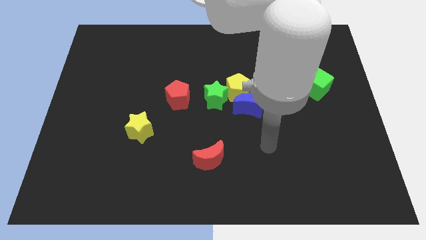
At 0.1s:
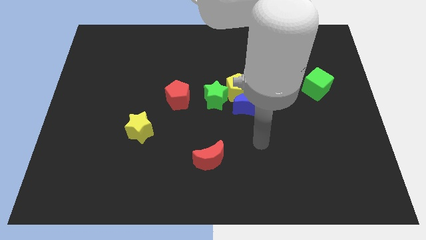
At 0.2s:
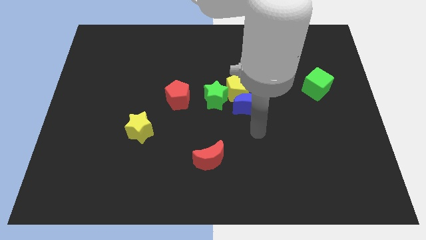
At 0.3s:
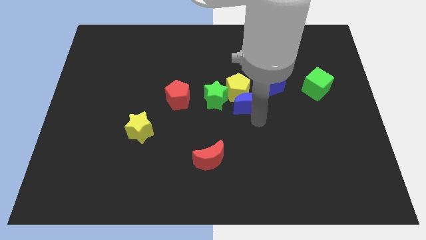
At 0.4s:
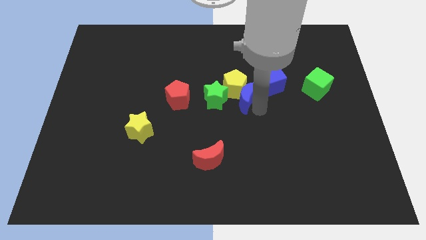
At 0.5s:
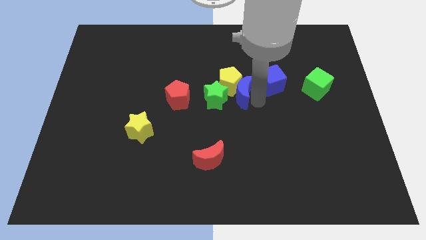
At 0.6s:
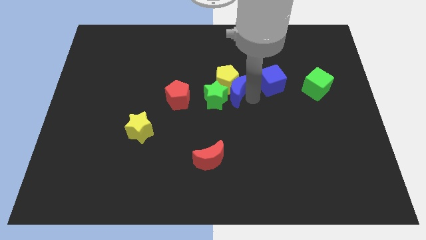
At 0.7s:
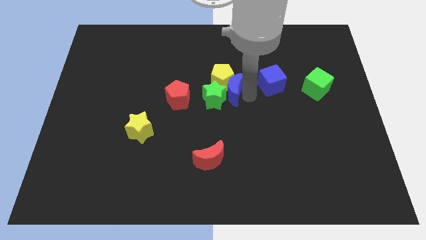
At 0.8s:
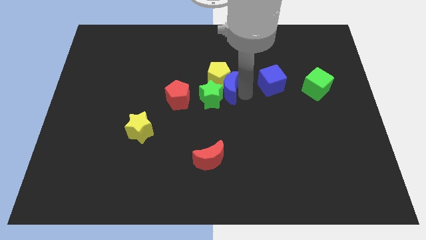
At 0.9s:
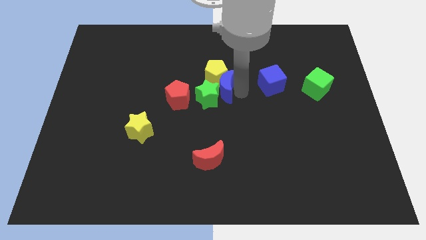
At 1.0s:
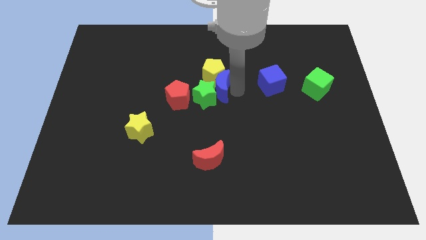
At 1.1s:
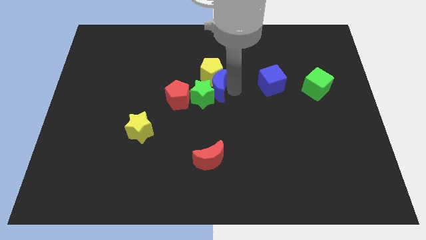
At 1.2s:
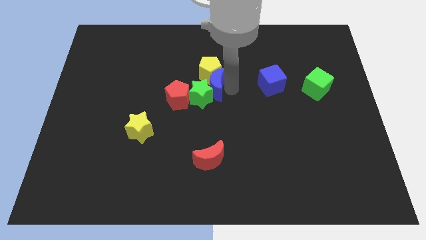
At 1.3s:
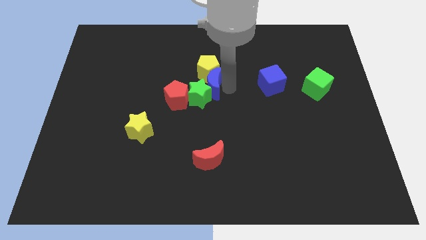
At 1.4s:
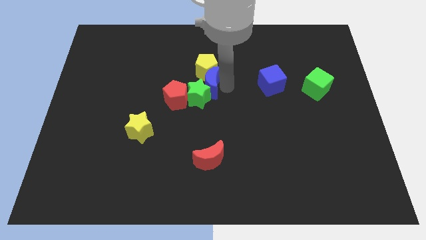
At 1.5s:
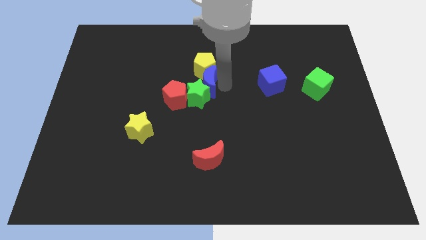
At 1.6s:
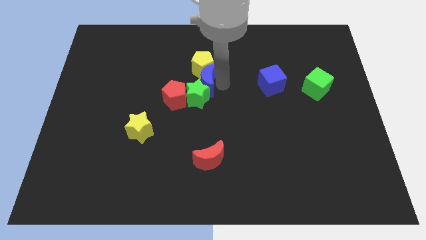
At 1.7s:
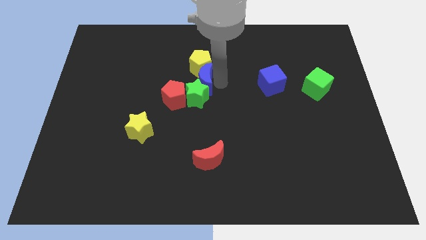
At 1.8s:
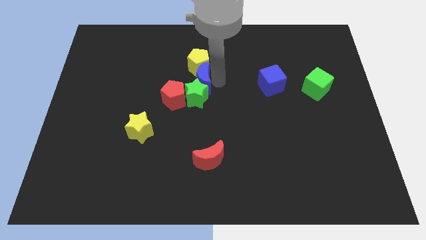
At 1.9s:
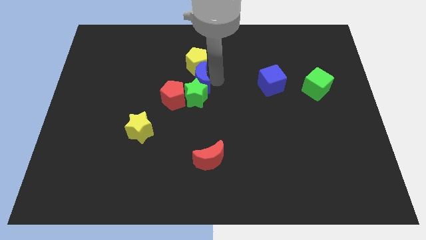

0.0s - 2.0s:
pull the yellow pentagon apart from the group of blocks

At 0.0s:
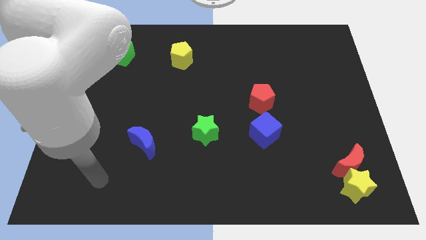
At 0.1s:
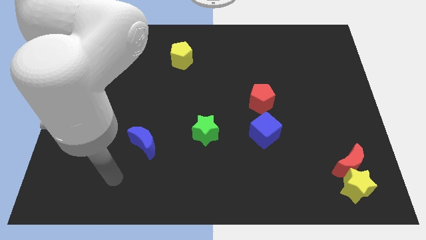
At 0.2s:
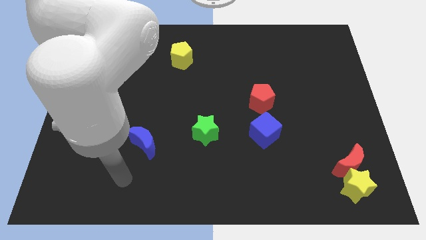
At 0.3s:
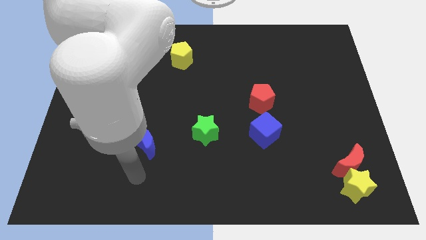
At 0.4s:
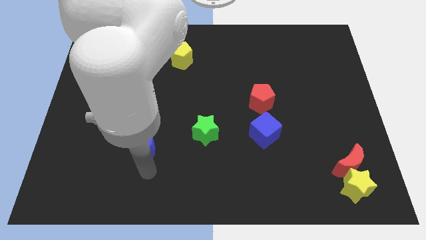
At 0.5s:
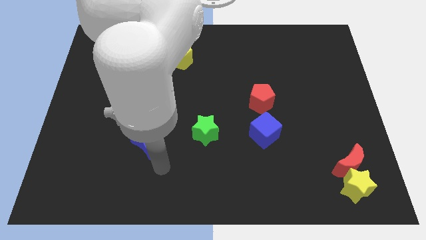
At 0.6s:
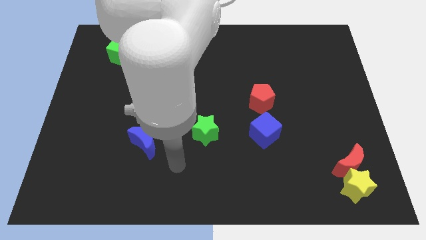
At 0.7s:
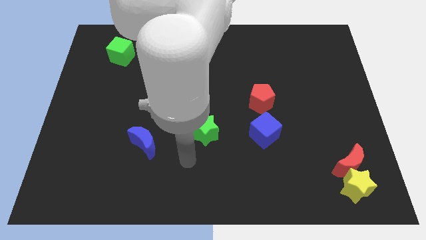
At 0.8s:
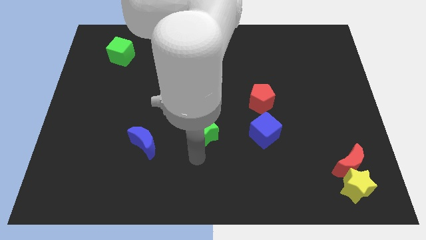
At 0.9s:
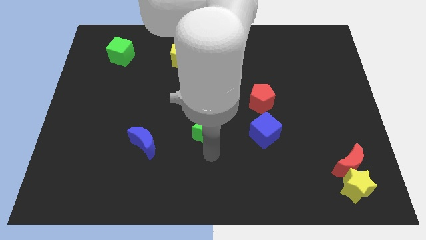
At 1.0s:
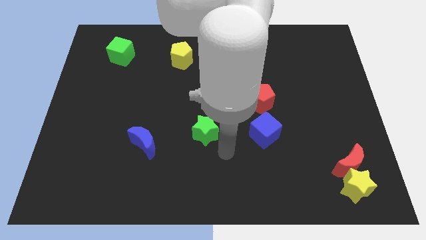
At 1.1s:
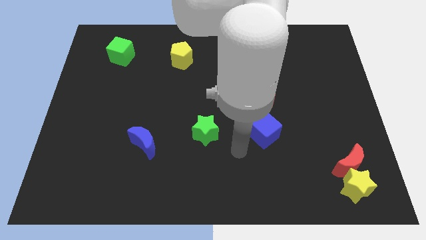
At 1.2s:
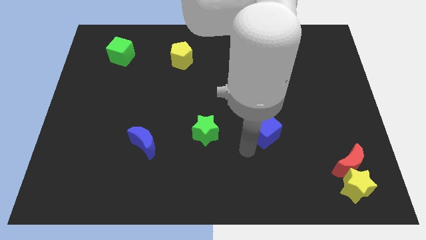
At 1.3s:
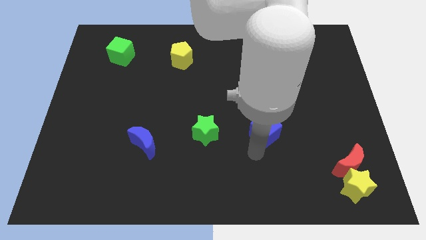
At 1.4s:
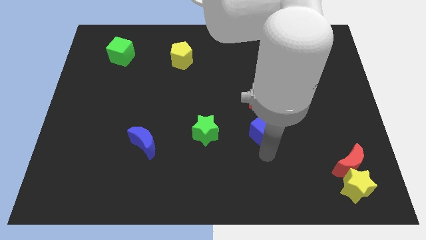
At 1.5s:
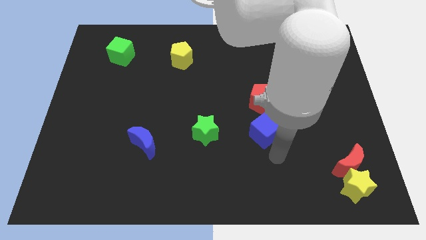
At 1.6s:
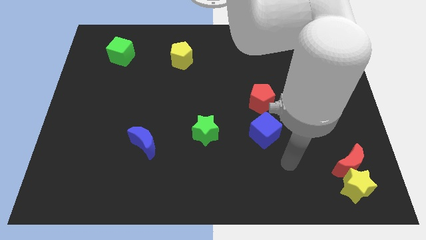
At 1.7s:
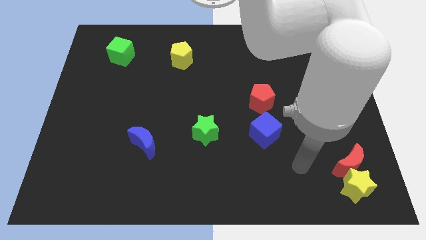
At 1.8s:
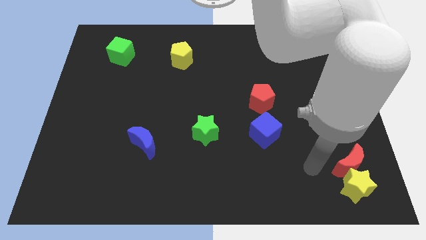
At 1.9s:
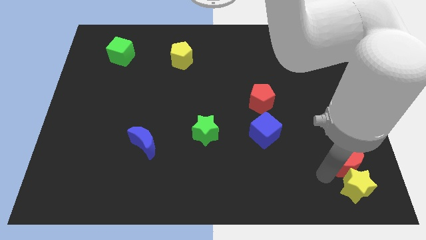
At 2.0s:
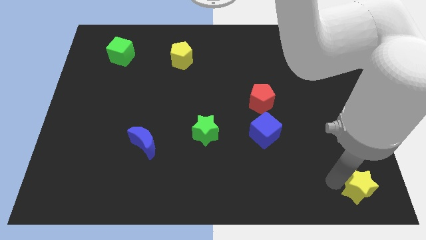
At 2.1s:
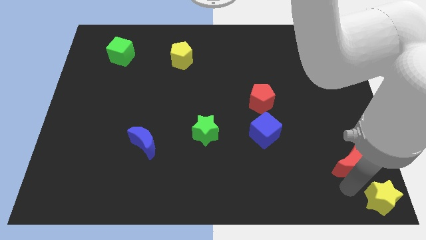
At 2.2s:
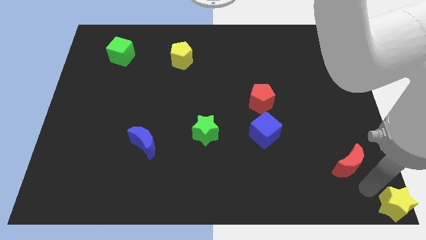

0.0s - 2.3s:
separate the red moon from the yellow star

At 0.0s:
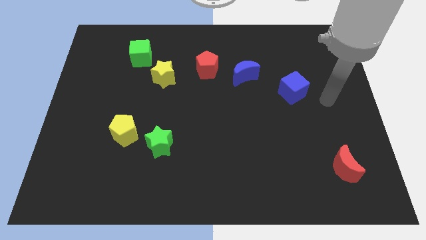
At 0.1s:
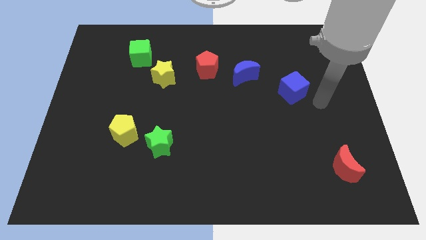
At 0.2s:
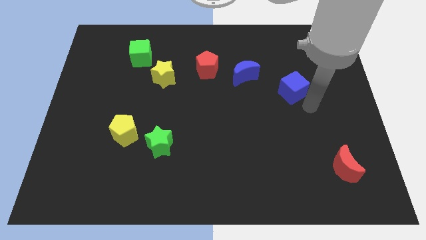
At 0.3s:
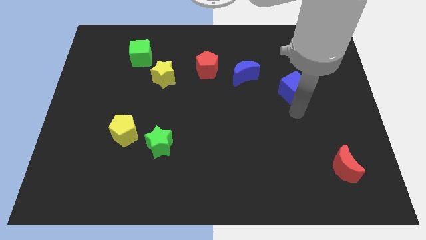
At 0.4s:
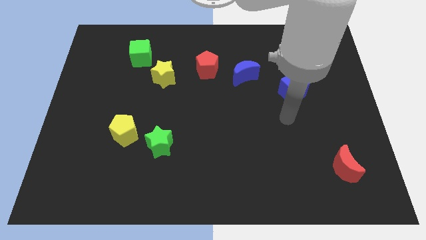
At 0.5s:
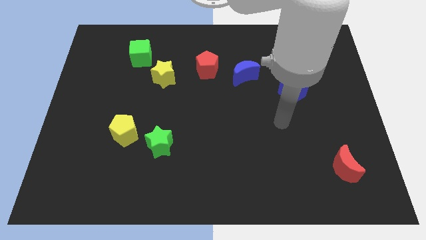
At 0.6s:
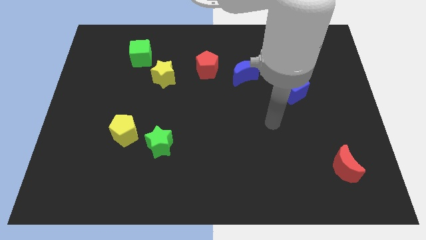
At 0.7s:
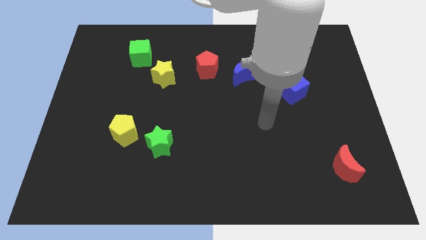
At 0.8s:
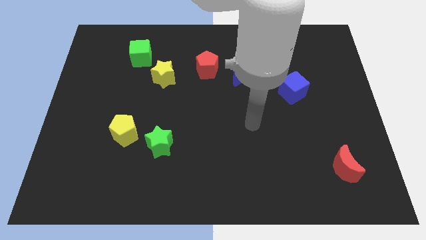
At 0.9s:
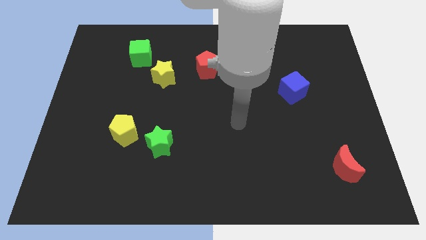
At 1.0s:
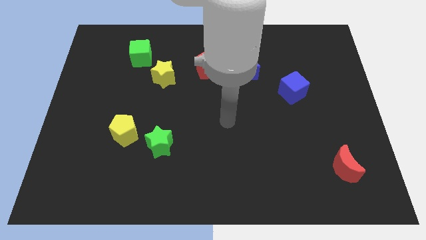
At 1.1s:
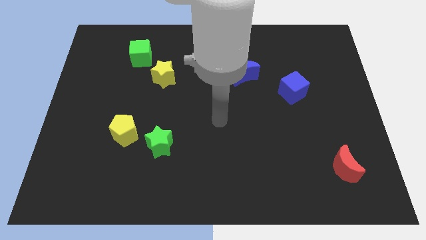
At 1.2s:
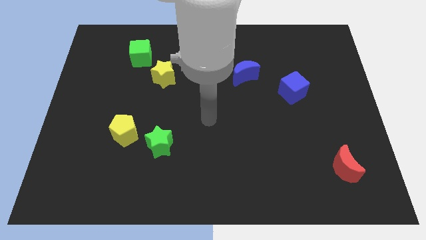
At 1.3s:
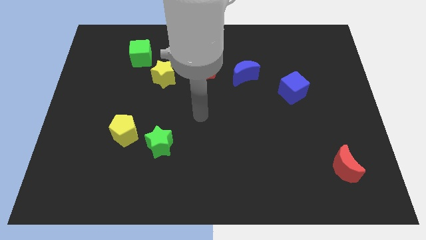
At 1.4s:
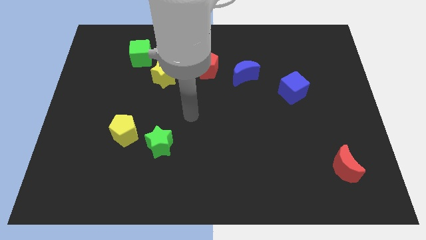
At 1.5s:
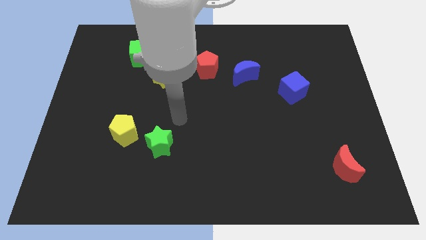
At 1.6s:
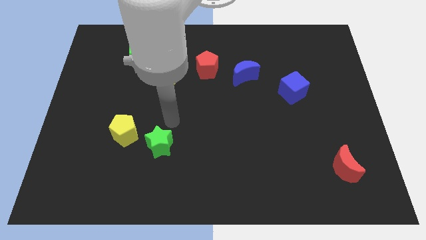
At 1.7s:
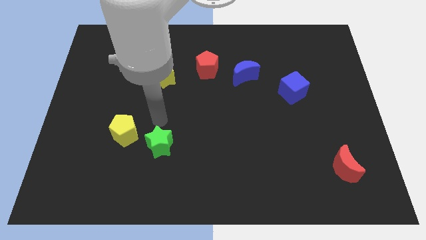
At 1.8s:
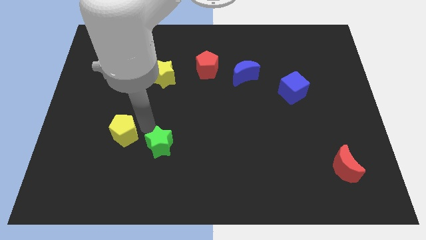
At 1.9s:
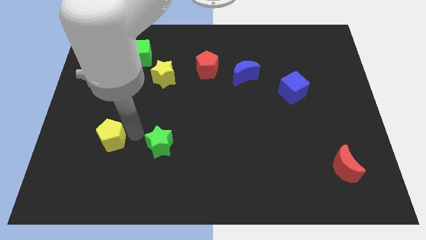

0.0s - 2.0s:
move the green star away from the yellow pentagon

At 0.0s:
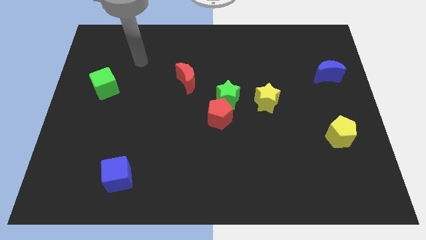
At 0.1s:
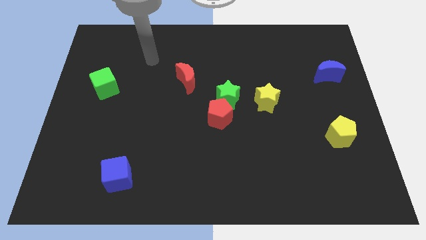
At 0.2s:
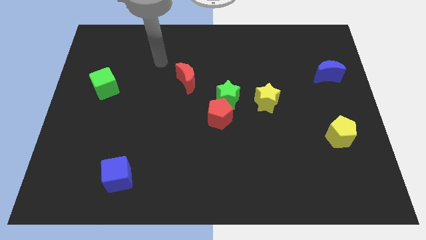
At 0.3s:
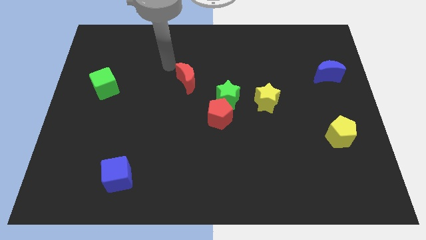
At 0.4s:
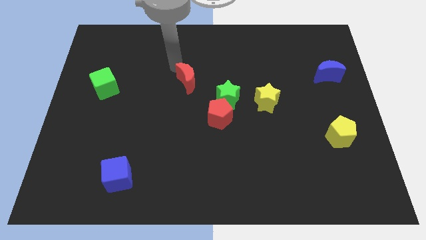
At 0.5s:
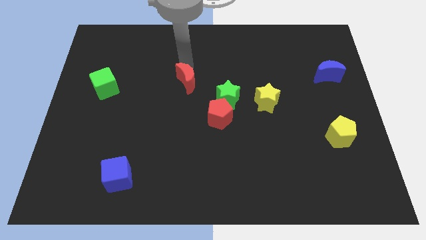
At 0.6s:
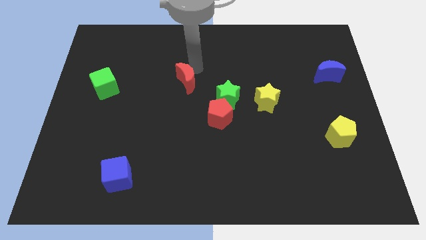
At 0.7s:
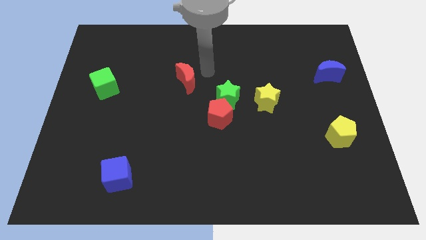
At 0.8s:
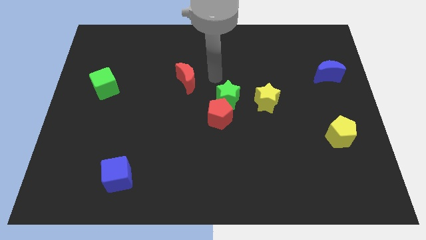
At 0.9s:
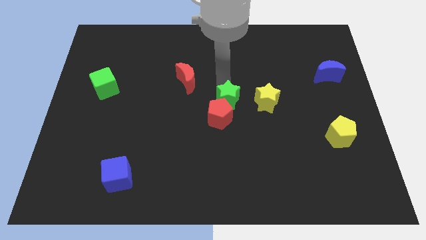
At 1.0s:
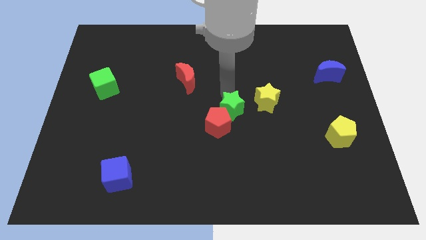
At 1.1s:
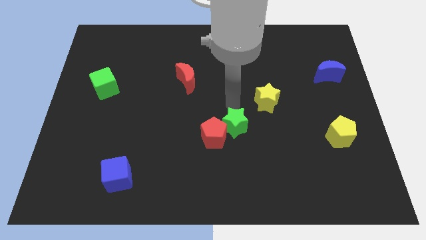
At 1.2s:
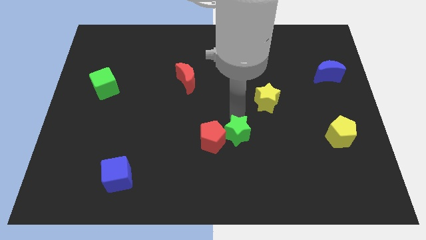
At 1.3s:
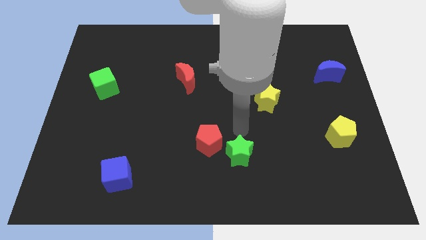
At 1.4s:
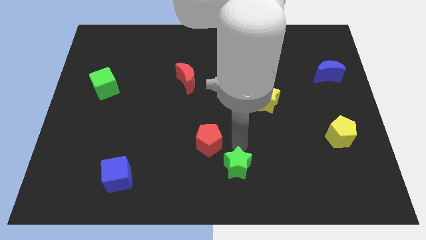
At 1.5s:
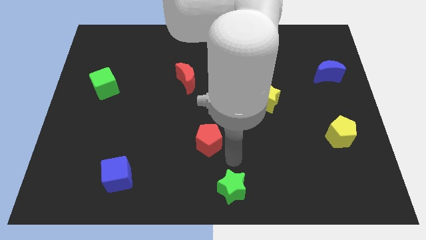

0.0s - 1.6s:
move the red pentagon away from the green star

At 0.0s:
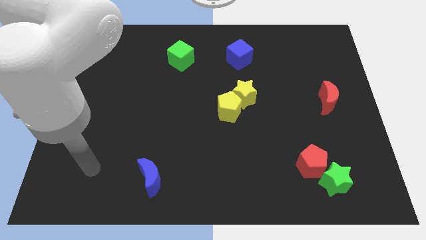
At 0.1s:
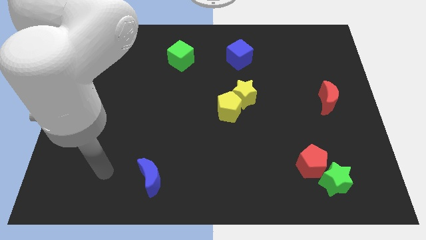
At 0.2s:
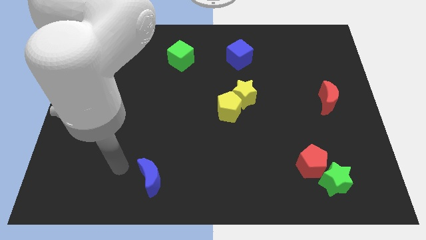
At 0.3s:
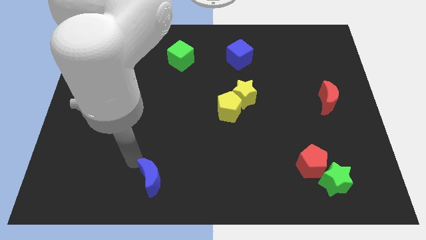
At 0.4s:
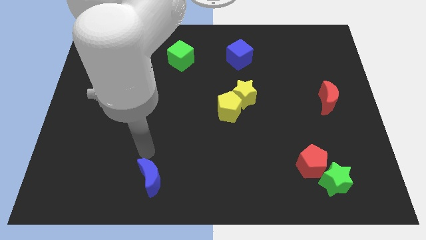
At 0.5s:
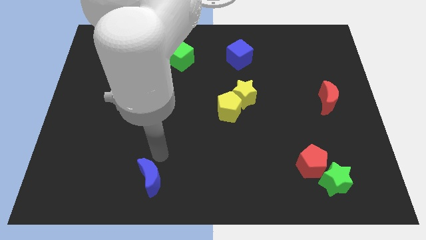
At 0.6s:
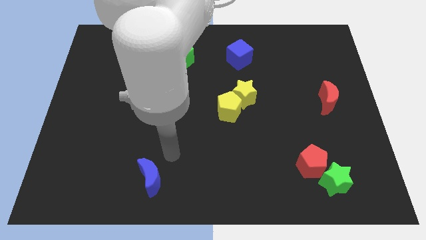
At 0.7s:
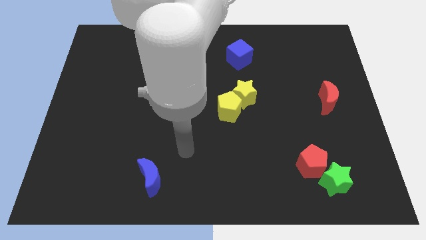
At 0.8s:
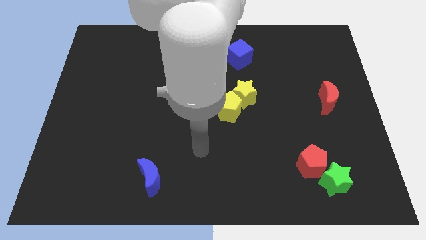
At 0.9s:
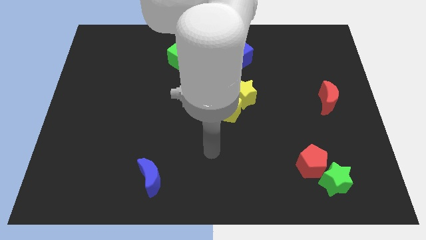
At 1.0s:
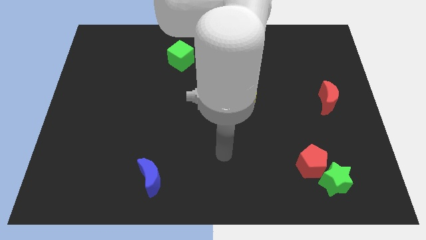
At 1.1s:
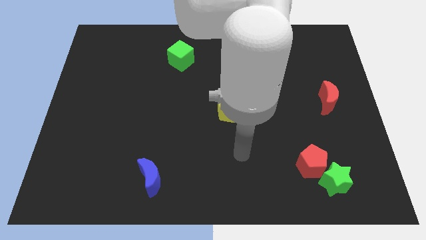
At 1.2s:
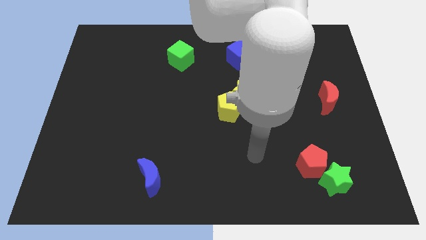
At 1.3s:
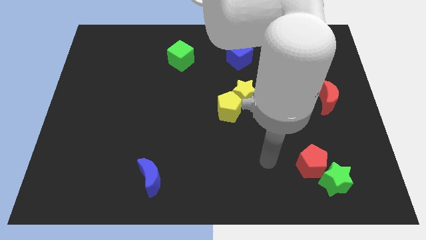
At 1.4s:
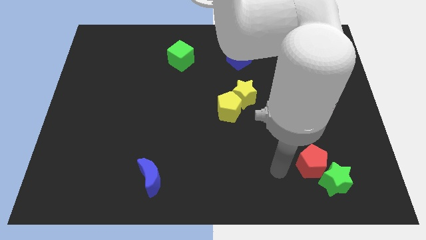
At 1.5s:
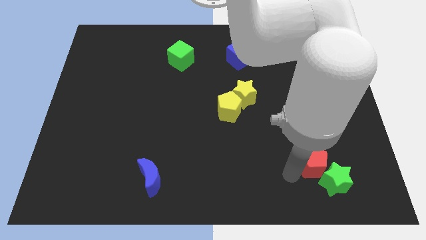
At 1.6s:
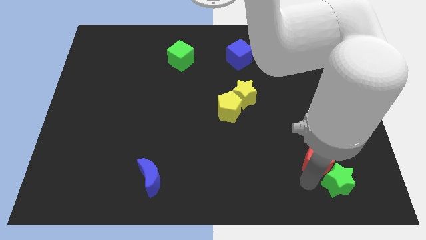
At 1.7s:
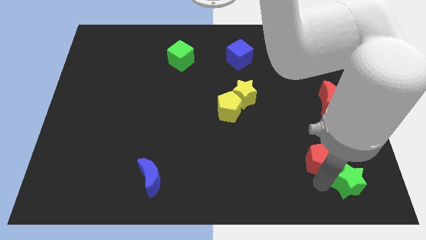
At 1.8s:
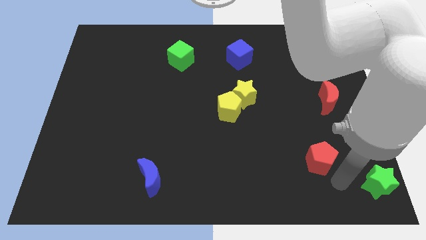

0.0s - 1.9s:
separate the red pentagon from the green star
